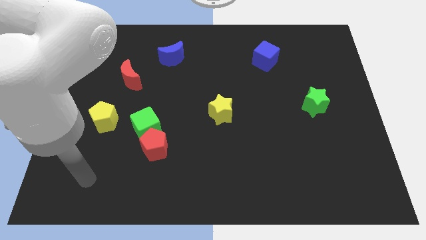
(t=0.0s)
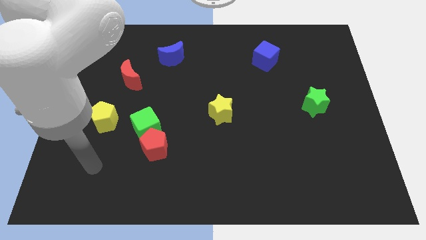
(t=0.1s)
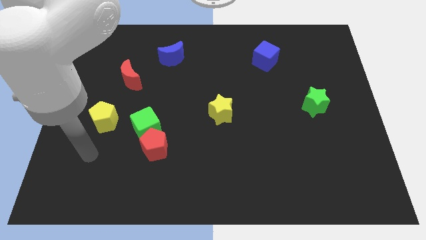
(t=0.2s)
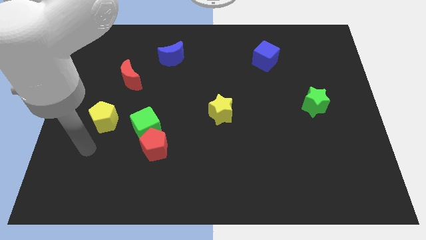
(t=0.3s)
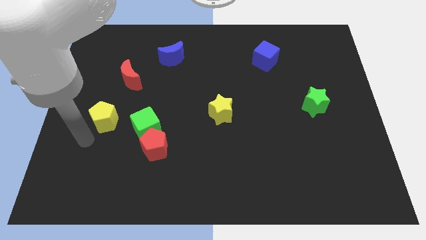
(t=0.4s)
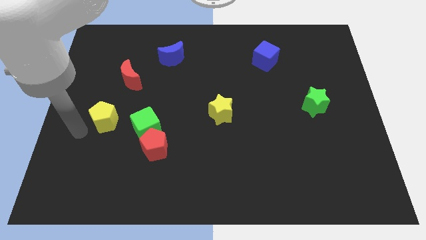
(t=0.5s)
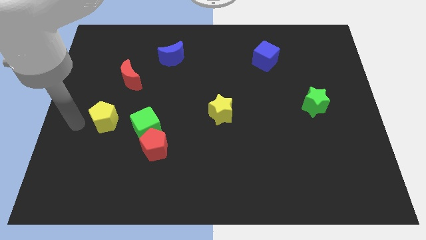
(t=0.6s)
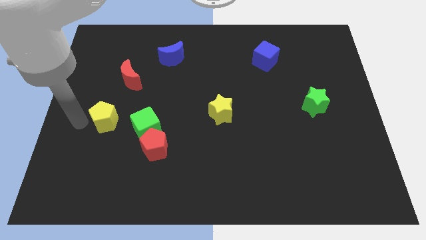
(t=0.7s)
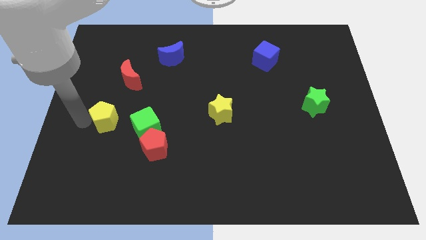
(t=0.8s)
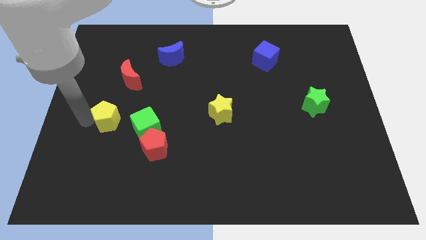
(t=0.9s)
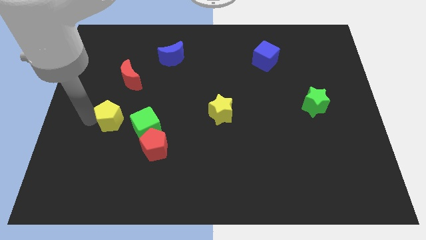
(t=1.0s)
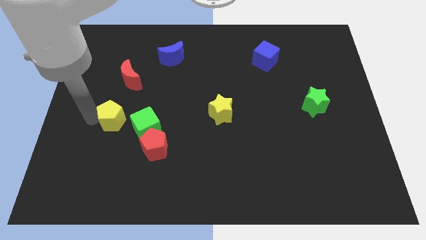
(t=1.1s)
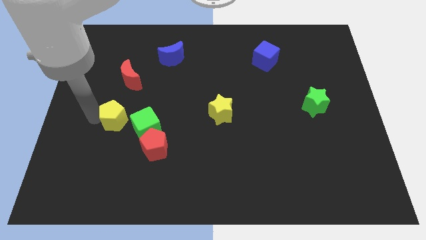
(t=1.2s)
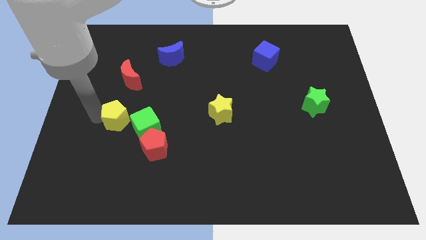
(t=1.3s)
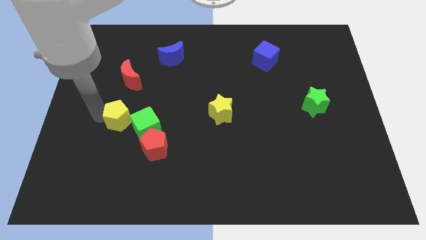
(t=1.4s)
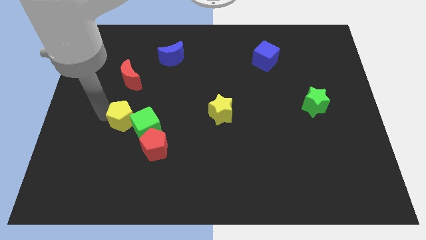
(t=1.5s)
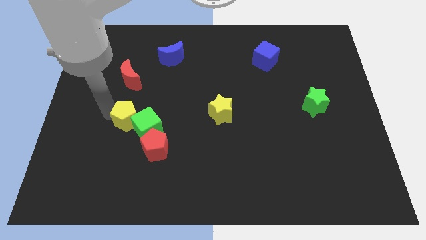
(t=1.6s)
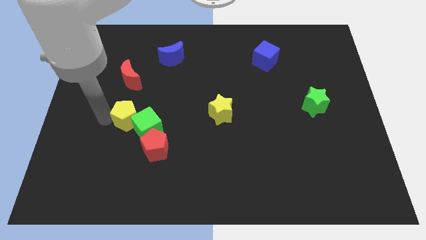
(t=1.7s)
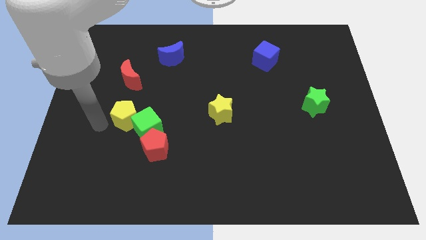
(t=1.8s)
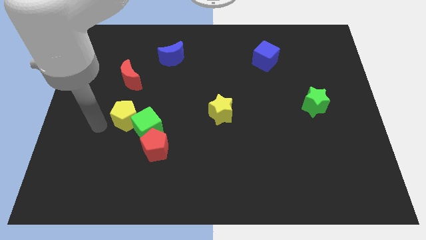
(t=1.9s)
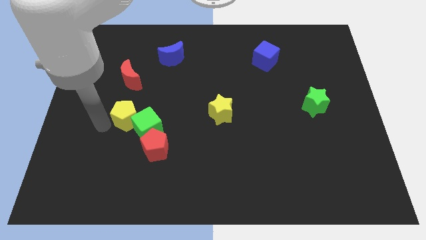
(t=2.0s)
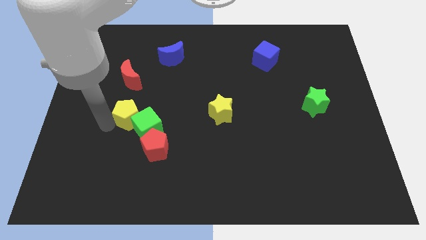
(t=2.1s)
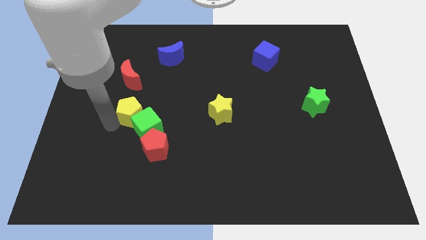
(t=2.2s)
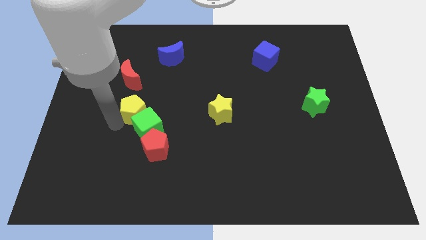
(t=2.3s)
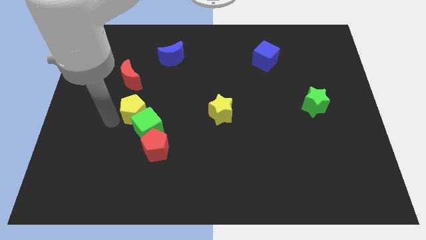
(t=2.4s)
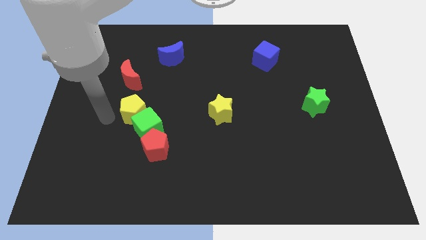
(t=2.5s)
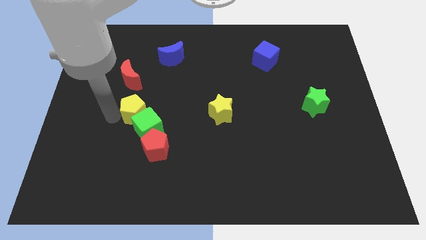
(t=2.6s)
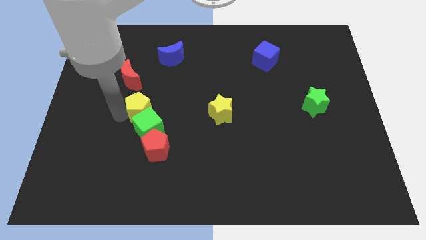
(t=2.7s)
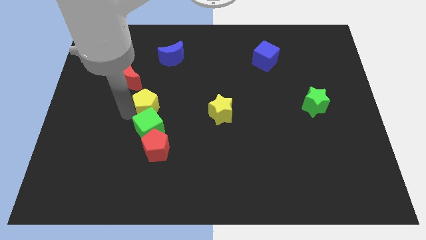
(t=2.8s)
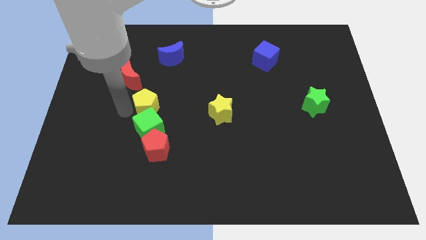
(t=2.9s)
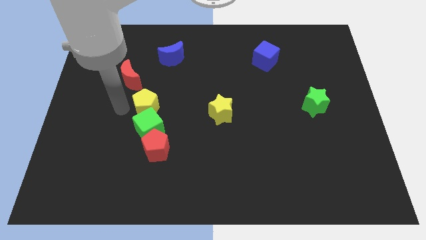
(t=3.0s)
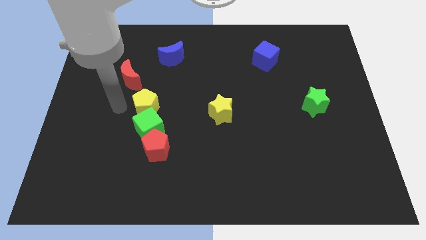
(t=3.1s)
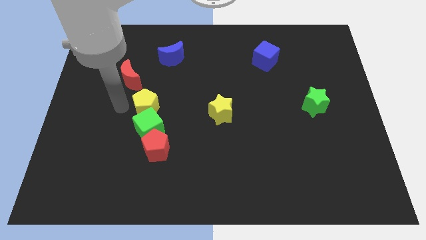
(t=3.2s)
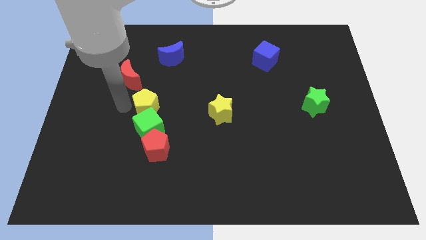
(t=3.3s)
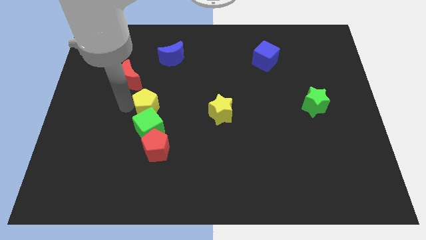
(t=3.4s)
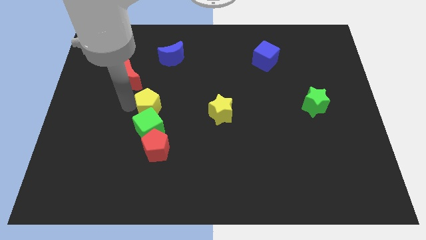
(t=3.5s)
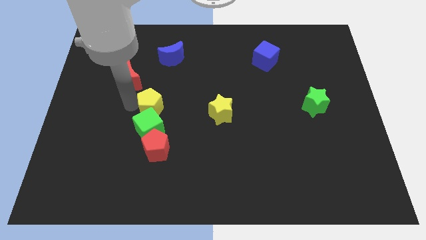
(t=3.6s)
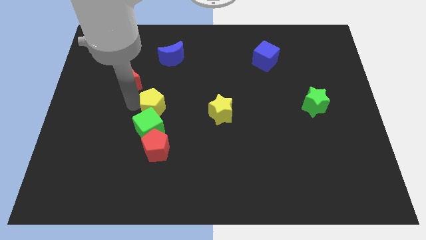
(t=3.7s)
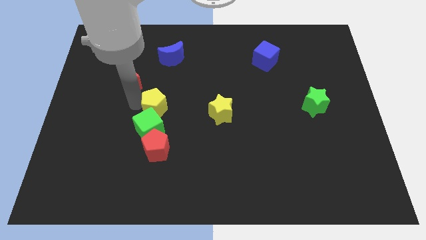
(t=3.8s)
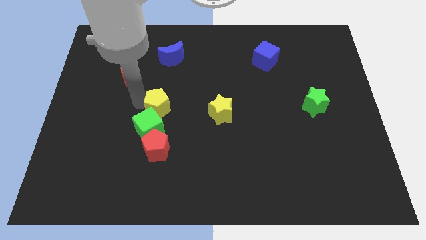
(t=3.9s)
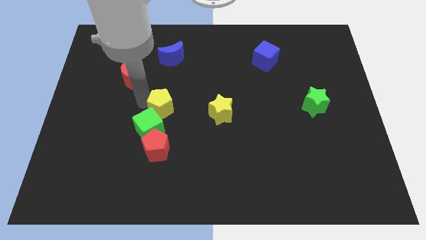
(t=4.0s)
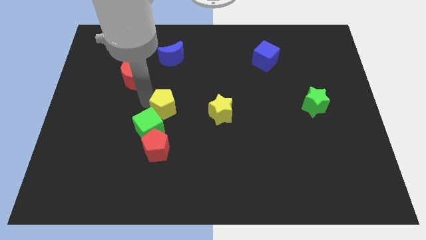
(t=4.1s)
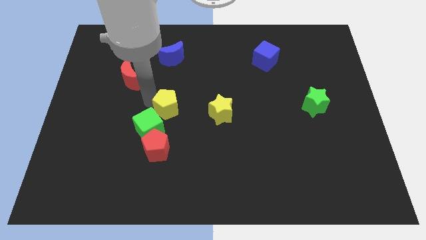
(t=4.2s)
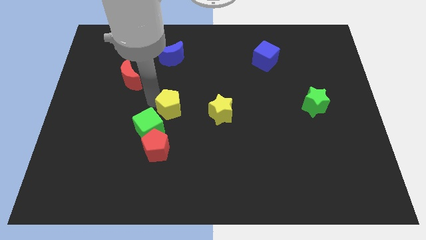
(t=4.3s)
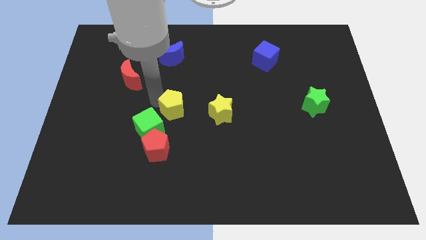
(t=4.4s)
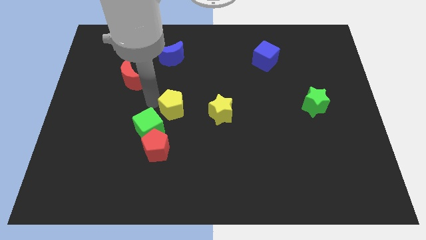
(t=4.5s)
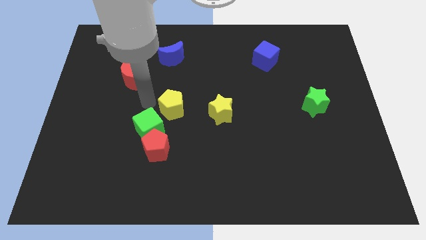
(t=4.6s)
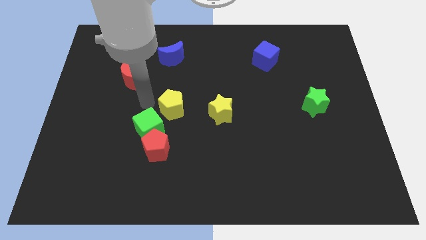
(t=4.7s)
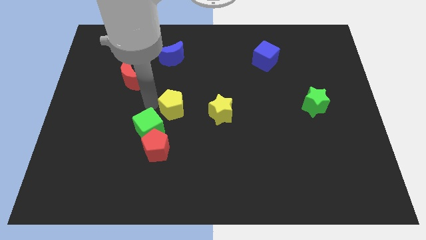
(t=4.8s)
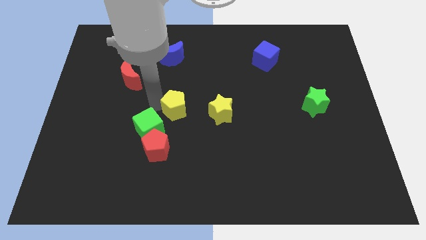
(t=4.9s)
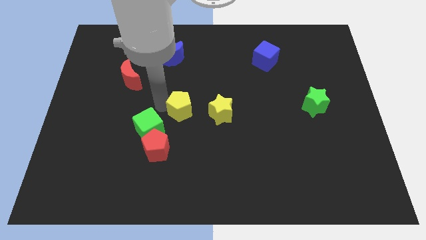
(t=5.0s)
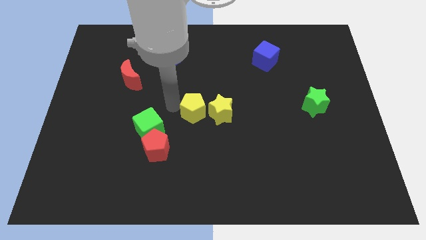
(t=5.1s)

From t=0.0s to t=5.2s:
move the yellow pentagon right

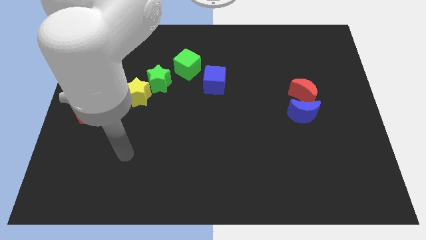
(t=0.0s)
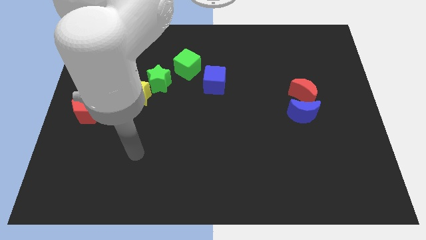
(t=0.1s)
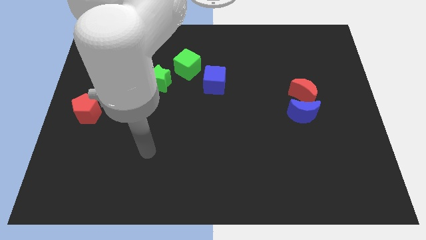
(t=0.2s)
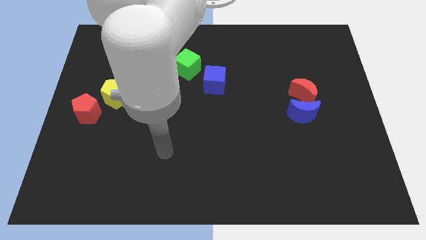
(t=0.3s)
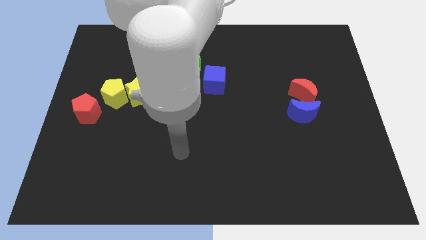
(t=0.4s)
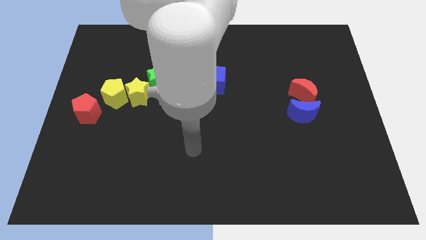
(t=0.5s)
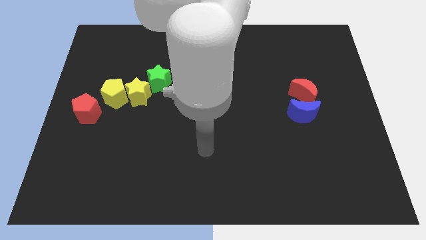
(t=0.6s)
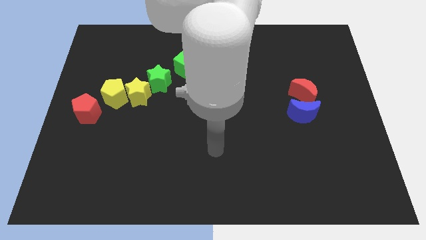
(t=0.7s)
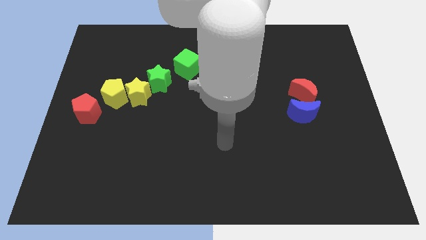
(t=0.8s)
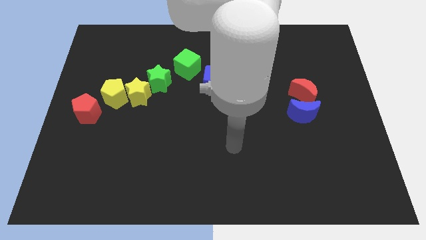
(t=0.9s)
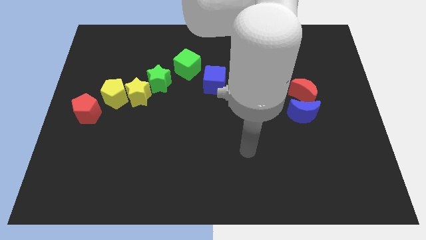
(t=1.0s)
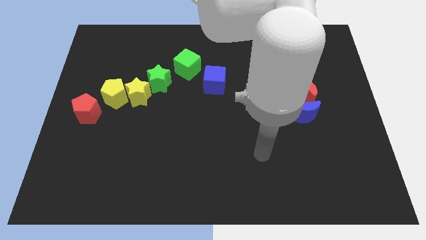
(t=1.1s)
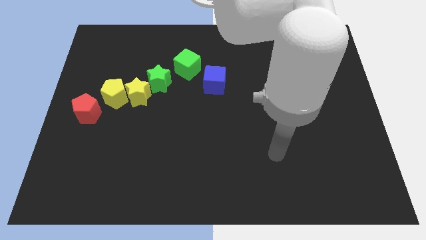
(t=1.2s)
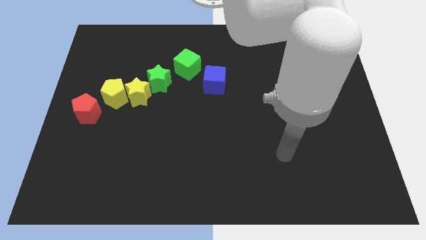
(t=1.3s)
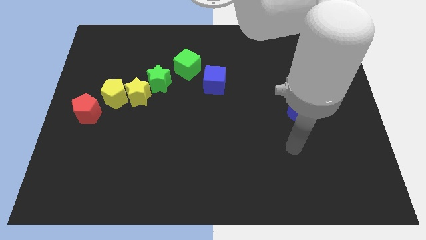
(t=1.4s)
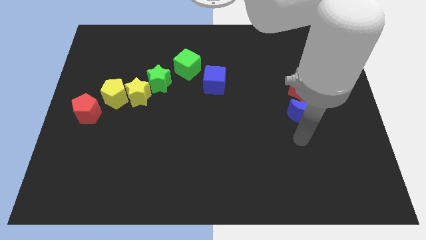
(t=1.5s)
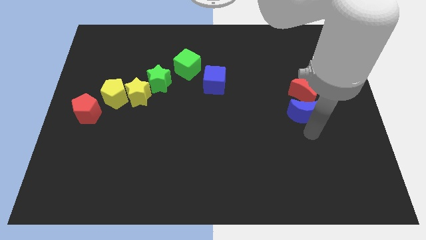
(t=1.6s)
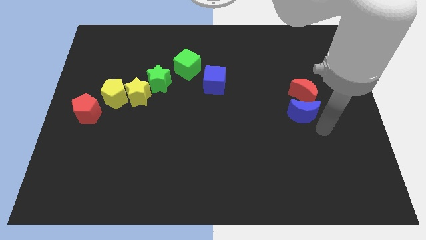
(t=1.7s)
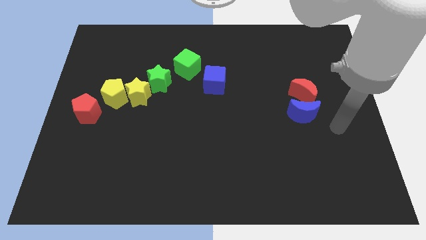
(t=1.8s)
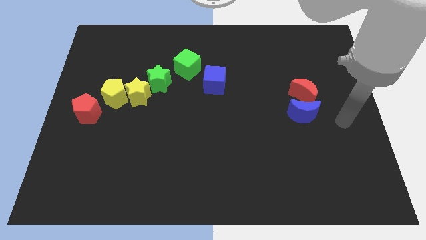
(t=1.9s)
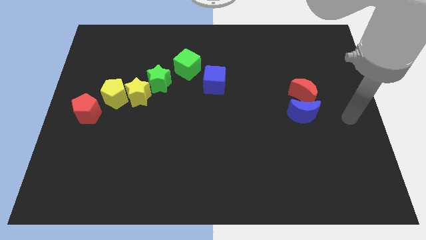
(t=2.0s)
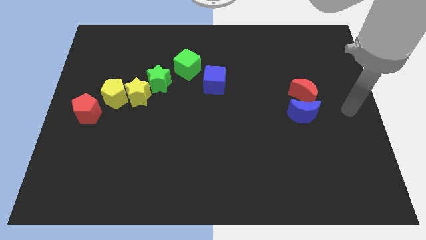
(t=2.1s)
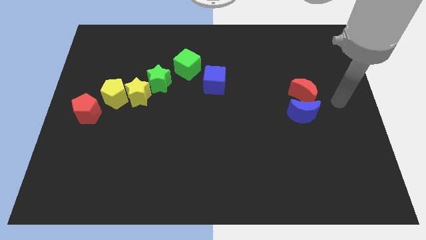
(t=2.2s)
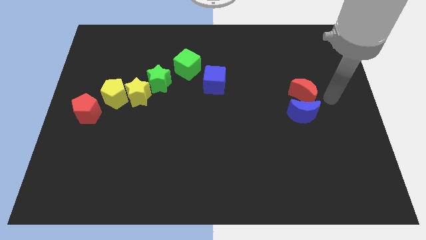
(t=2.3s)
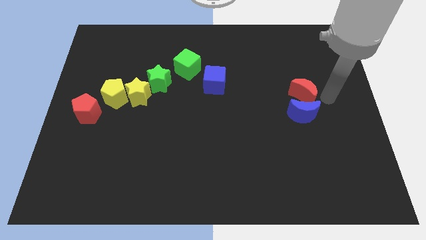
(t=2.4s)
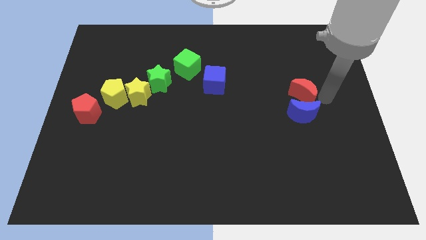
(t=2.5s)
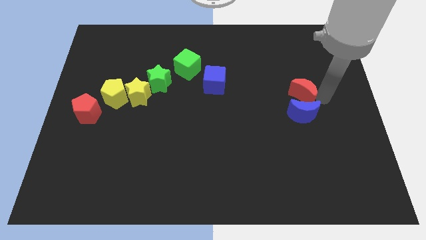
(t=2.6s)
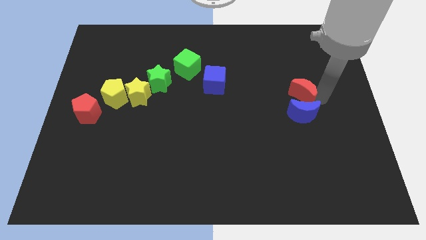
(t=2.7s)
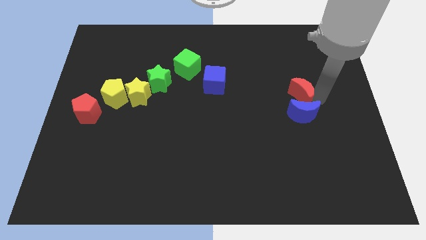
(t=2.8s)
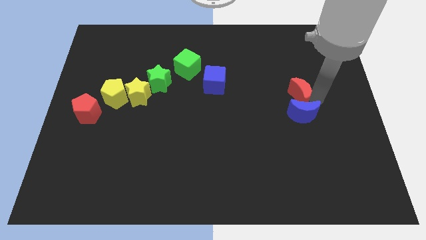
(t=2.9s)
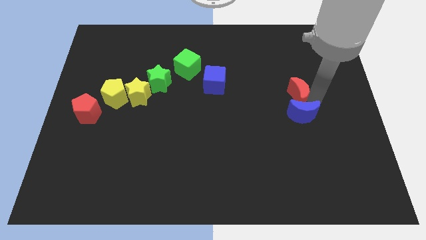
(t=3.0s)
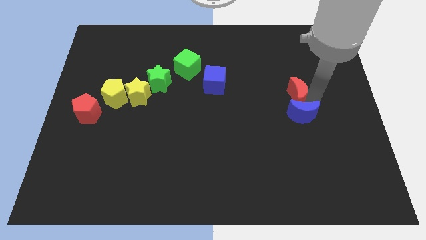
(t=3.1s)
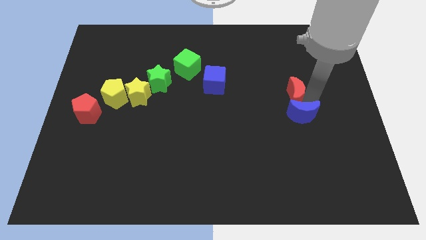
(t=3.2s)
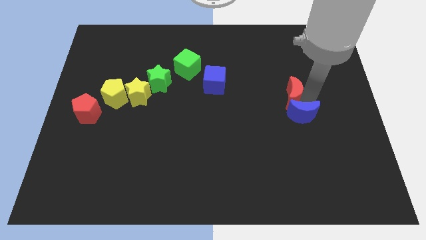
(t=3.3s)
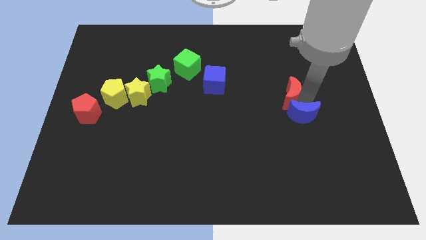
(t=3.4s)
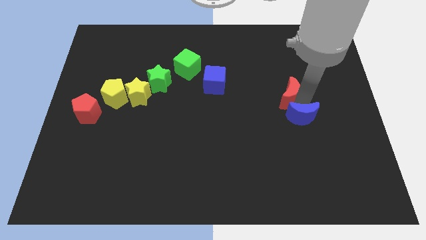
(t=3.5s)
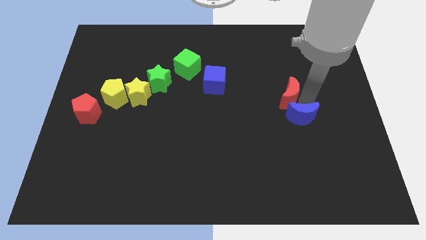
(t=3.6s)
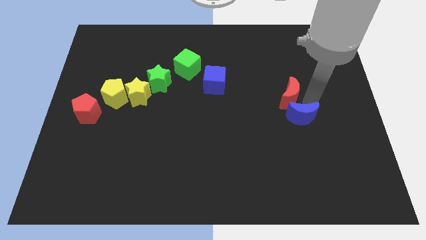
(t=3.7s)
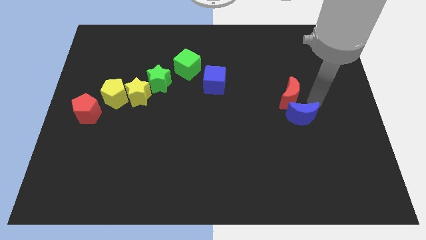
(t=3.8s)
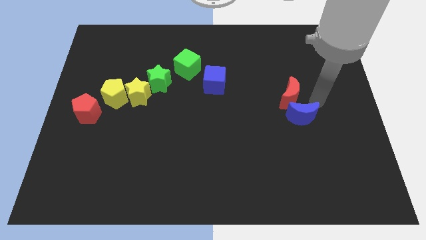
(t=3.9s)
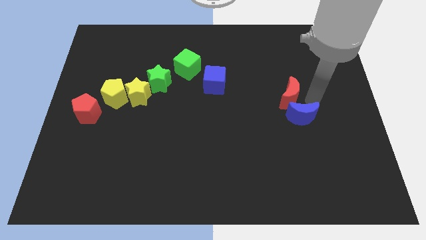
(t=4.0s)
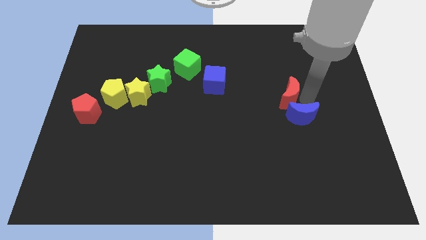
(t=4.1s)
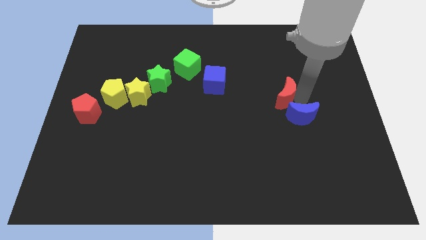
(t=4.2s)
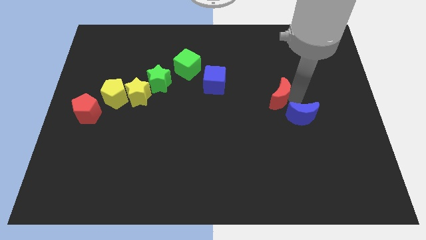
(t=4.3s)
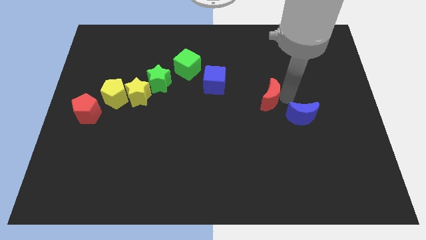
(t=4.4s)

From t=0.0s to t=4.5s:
slightly slide the red moon left
